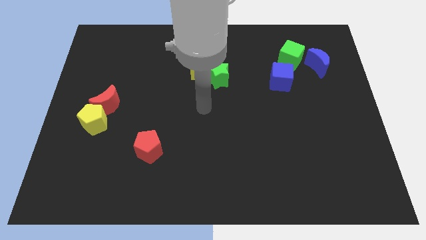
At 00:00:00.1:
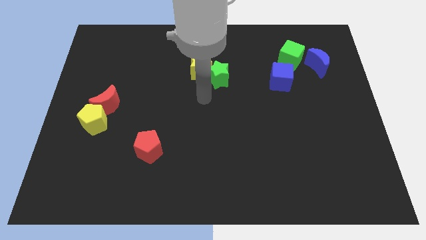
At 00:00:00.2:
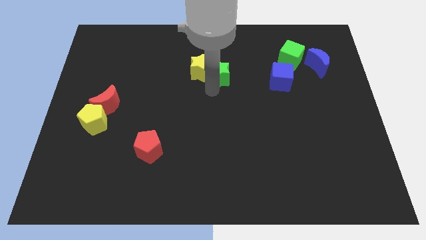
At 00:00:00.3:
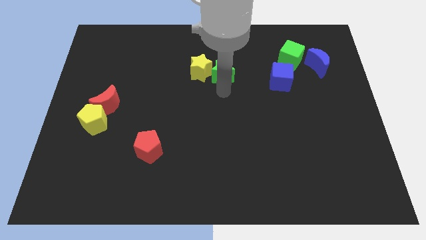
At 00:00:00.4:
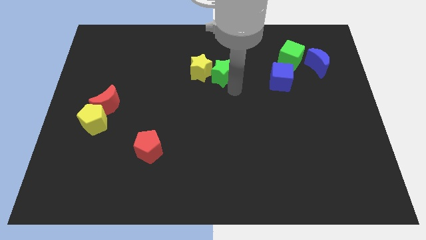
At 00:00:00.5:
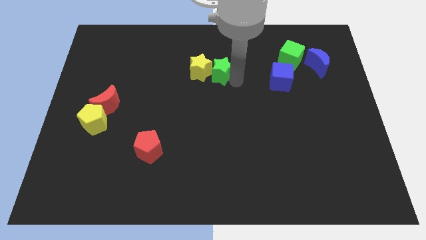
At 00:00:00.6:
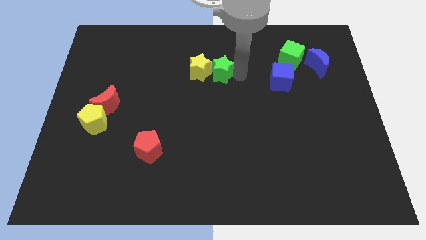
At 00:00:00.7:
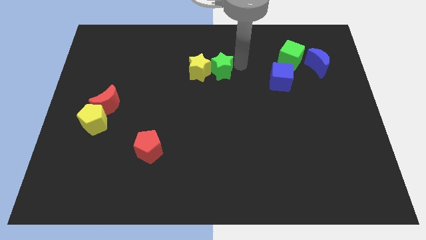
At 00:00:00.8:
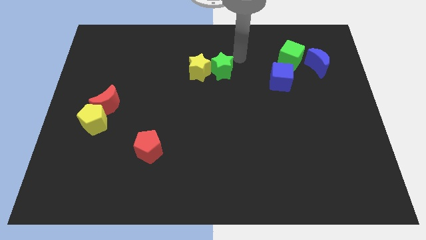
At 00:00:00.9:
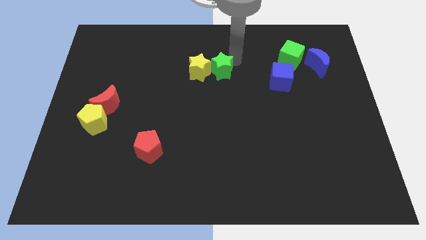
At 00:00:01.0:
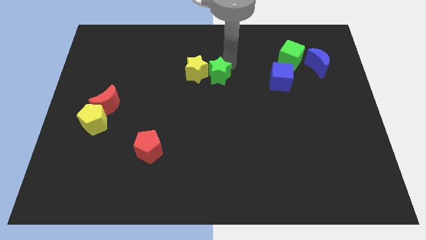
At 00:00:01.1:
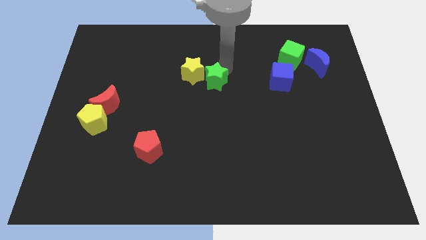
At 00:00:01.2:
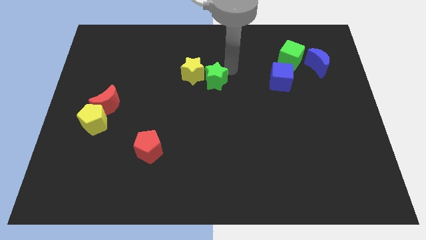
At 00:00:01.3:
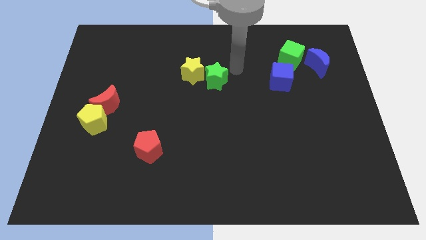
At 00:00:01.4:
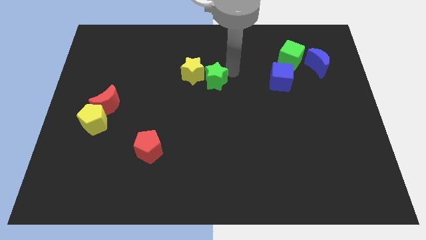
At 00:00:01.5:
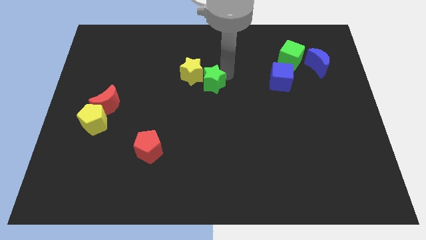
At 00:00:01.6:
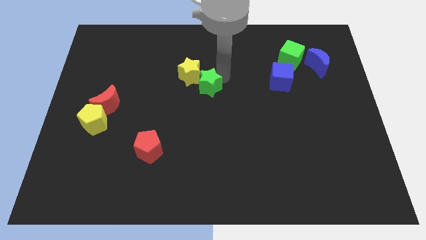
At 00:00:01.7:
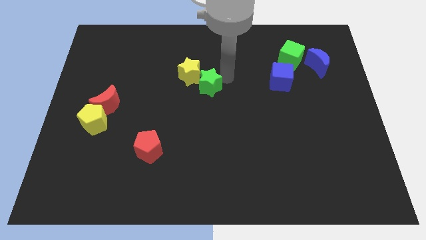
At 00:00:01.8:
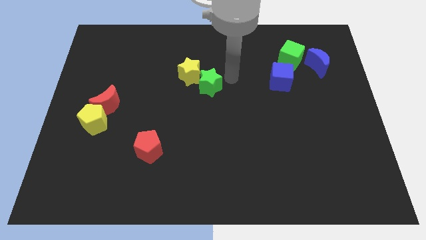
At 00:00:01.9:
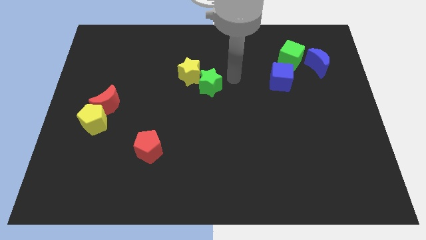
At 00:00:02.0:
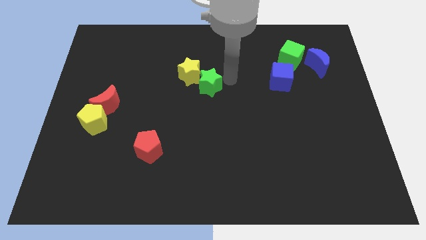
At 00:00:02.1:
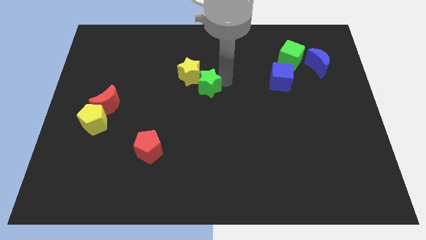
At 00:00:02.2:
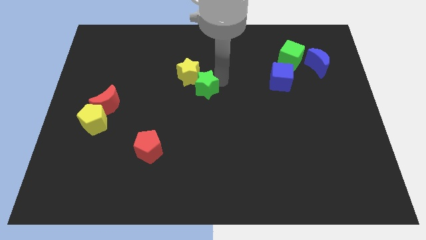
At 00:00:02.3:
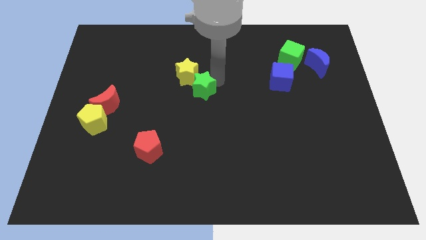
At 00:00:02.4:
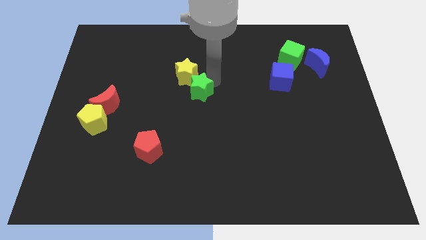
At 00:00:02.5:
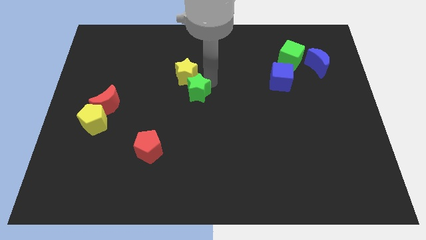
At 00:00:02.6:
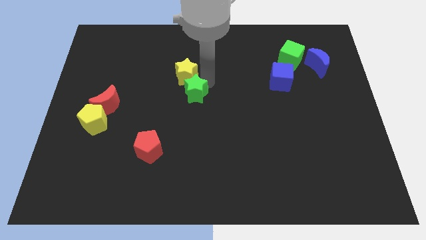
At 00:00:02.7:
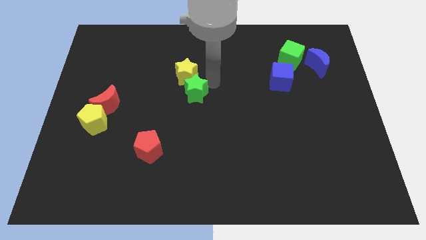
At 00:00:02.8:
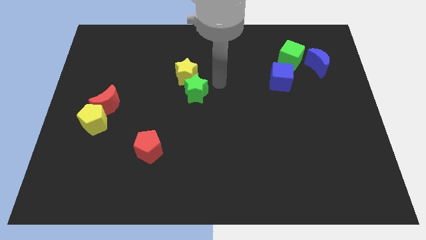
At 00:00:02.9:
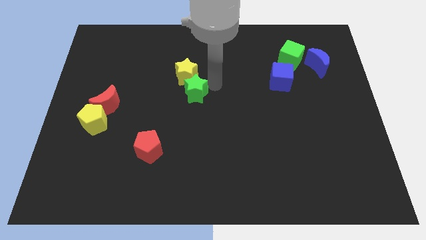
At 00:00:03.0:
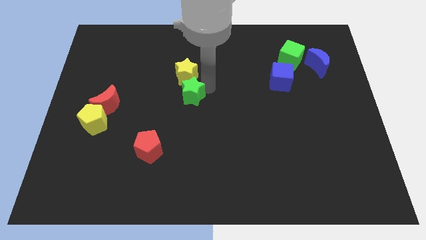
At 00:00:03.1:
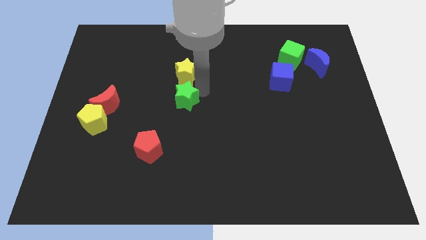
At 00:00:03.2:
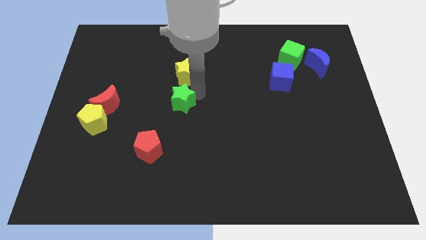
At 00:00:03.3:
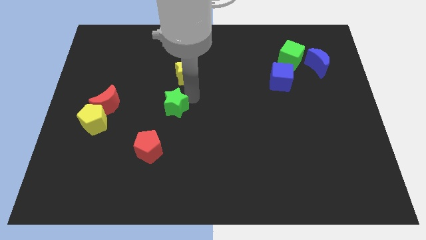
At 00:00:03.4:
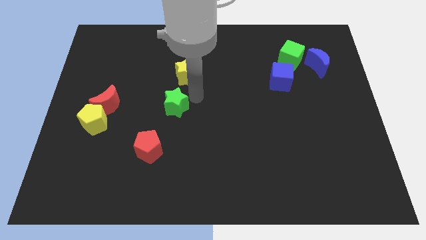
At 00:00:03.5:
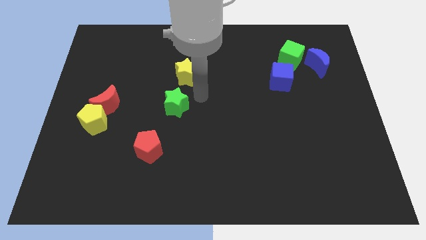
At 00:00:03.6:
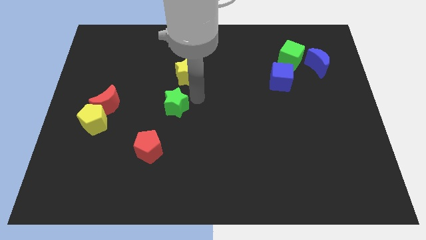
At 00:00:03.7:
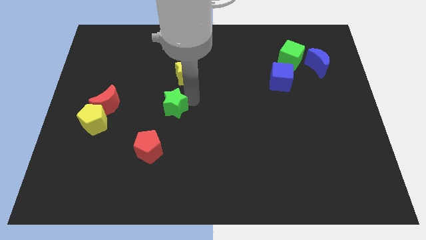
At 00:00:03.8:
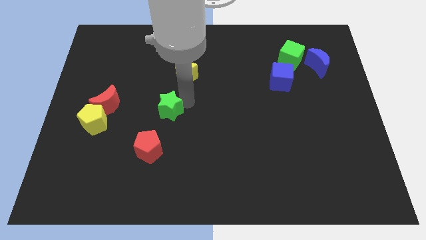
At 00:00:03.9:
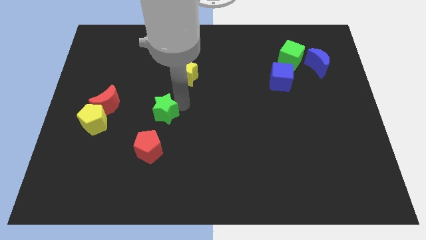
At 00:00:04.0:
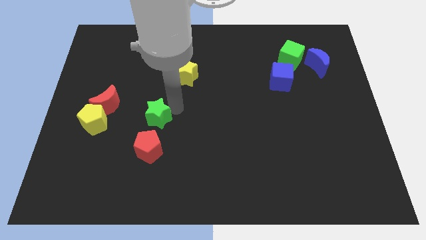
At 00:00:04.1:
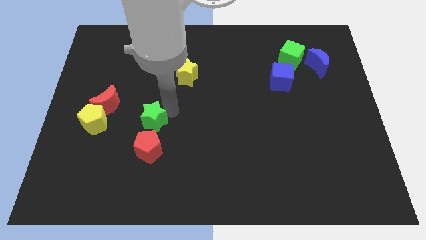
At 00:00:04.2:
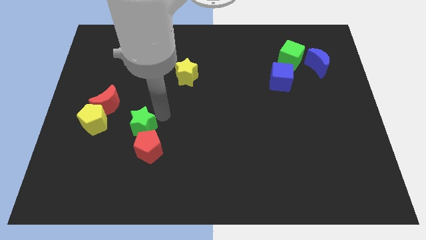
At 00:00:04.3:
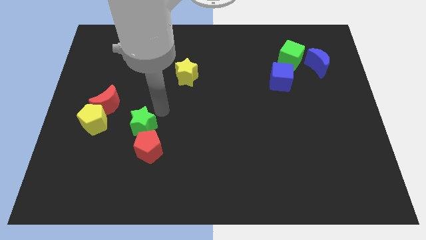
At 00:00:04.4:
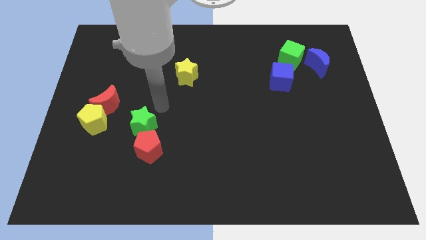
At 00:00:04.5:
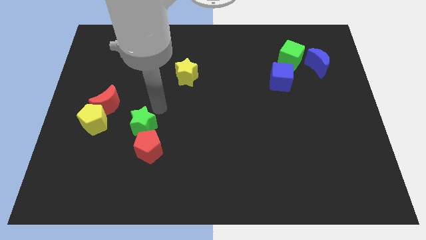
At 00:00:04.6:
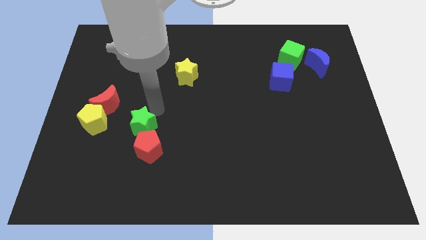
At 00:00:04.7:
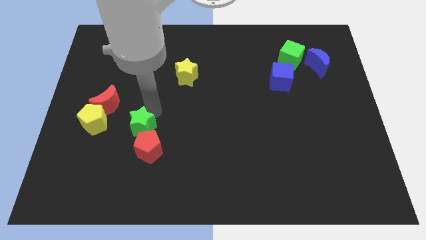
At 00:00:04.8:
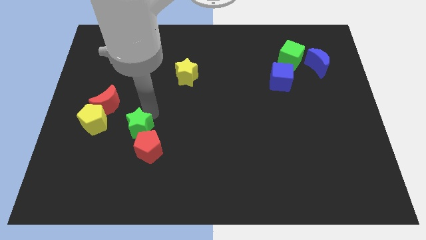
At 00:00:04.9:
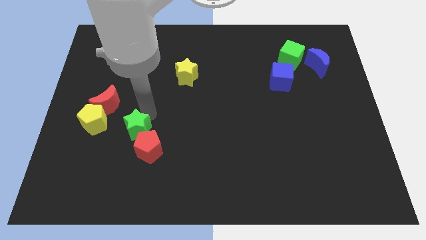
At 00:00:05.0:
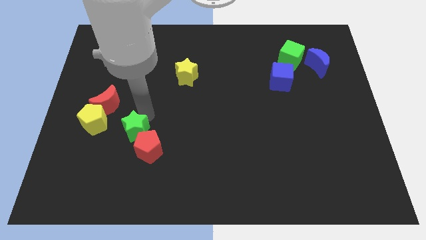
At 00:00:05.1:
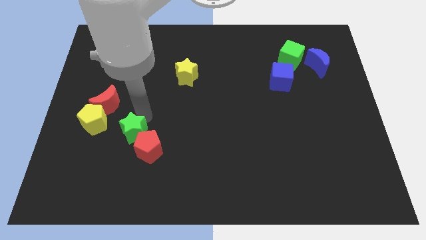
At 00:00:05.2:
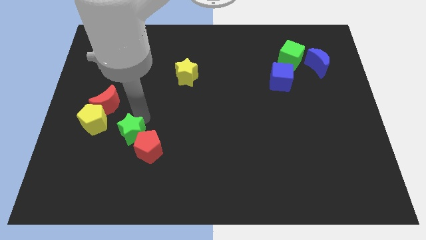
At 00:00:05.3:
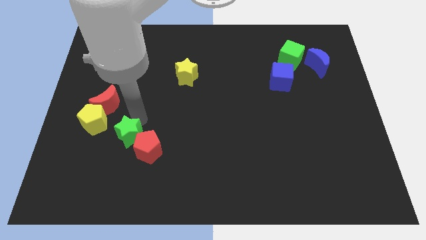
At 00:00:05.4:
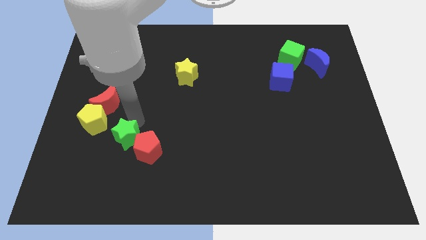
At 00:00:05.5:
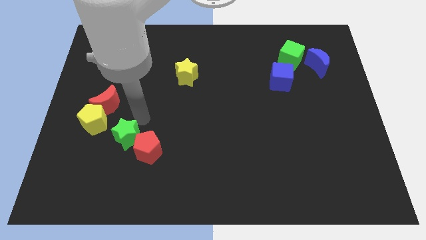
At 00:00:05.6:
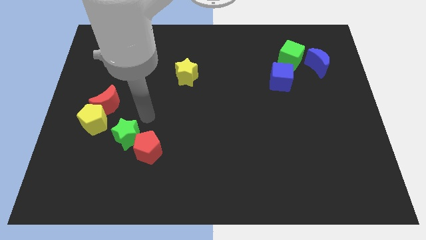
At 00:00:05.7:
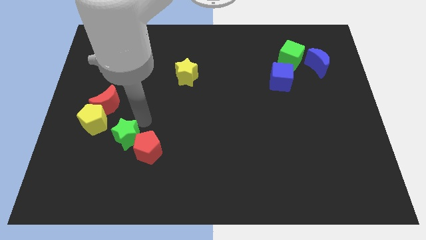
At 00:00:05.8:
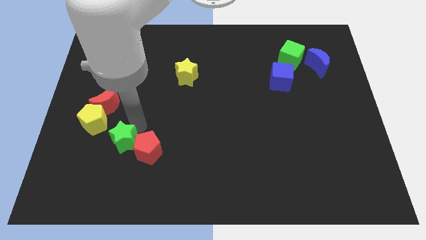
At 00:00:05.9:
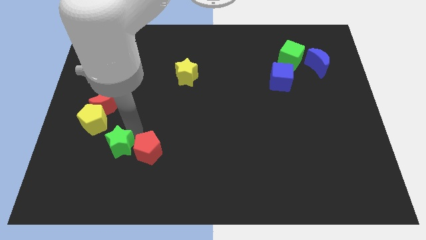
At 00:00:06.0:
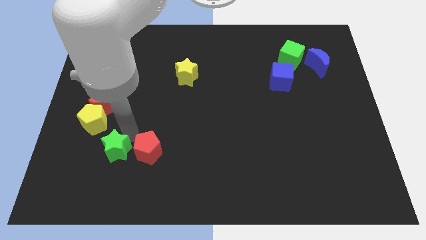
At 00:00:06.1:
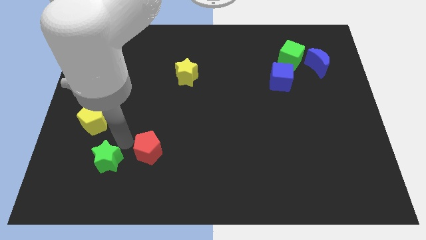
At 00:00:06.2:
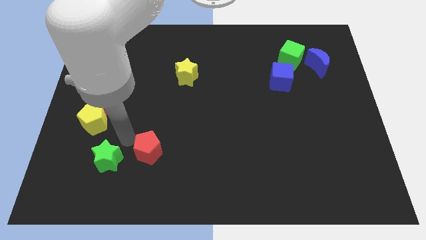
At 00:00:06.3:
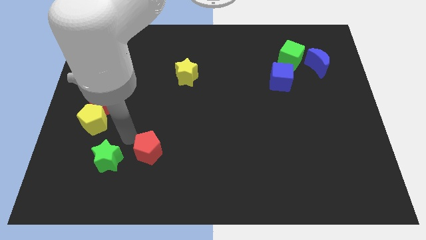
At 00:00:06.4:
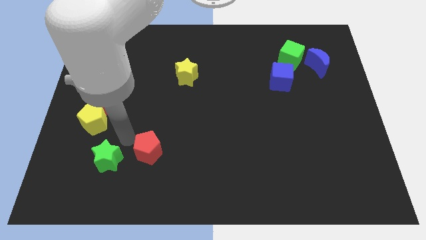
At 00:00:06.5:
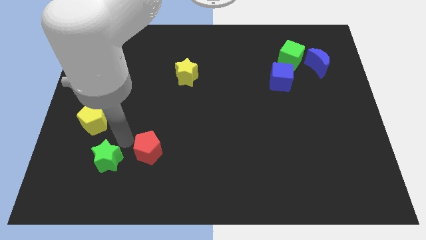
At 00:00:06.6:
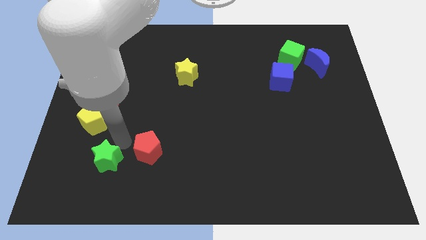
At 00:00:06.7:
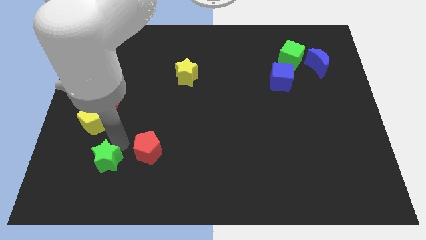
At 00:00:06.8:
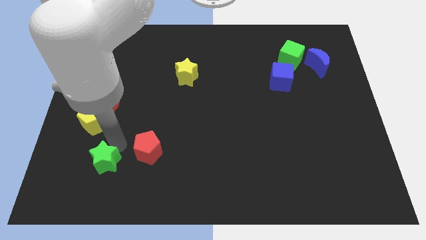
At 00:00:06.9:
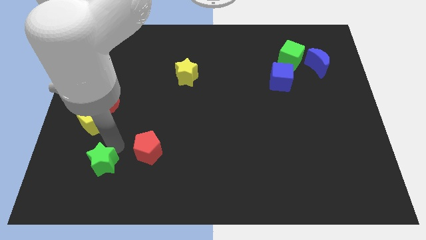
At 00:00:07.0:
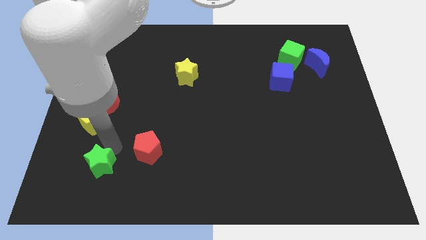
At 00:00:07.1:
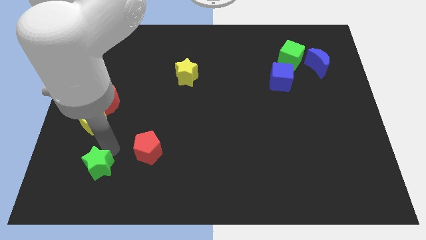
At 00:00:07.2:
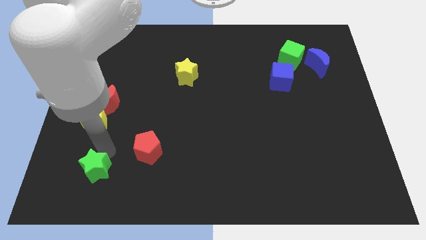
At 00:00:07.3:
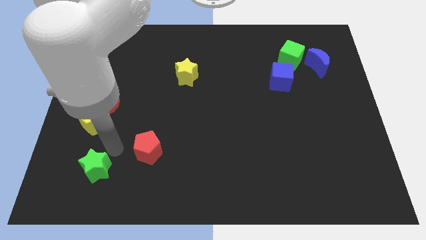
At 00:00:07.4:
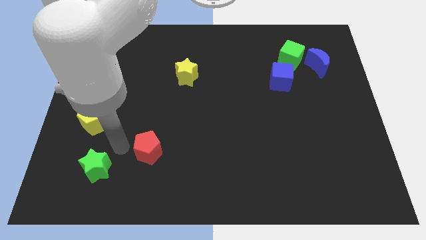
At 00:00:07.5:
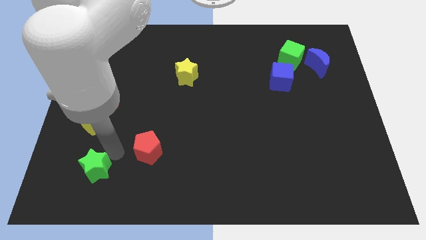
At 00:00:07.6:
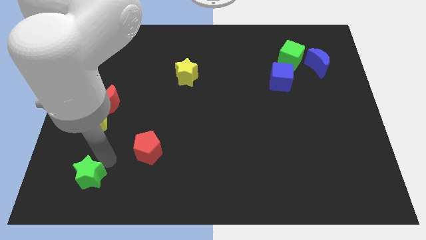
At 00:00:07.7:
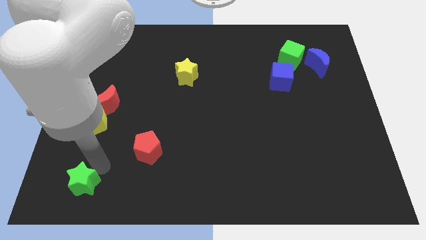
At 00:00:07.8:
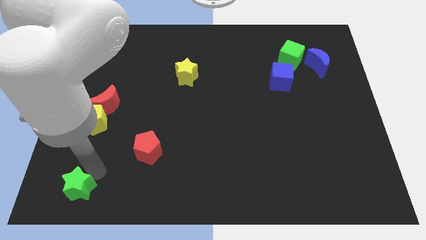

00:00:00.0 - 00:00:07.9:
push the green star to the bottom left corner
